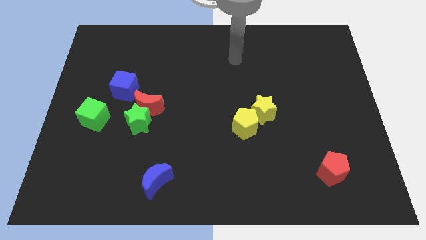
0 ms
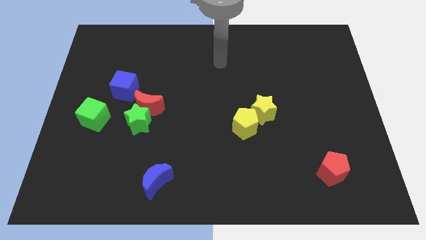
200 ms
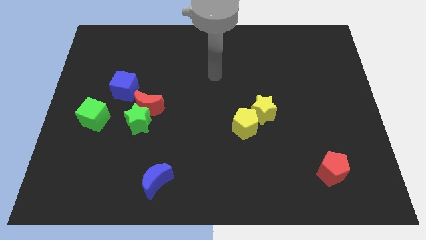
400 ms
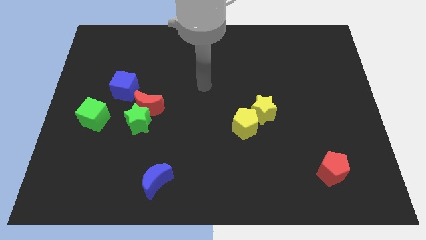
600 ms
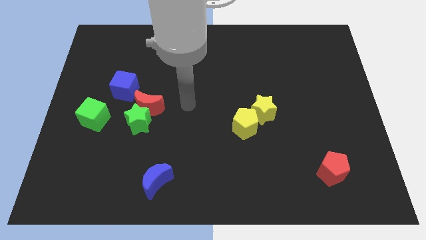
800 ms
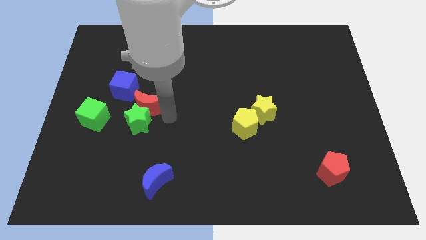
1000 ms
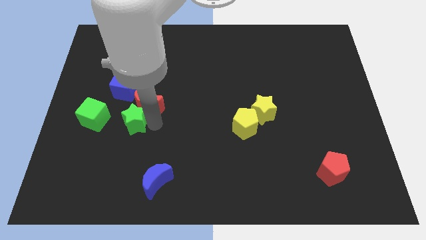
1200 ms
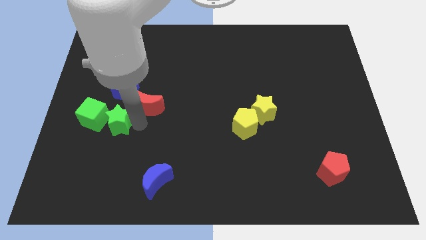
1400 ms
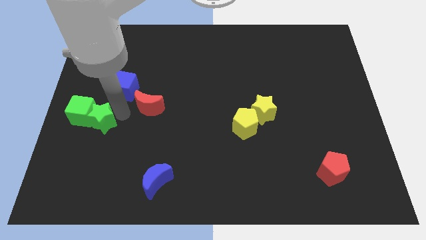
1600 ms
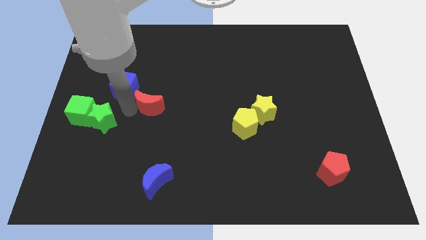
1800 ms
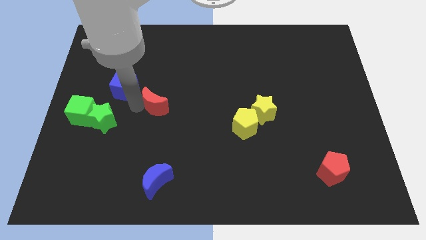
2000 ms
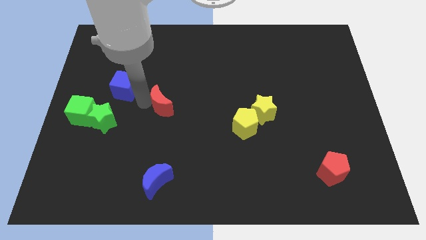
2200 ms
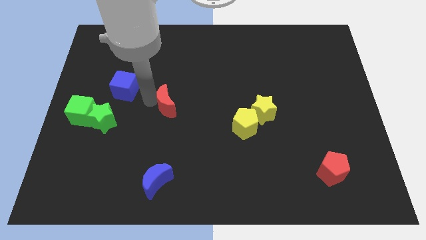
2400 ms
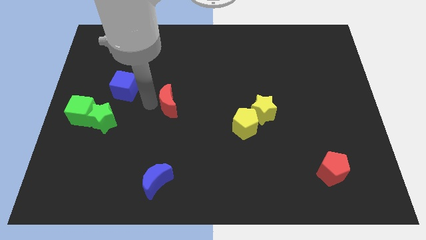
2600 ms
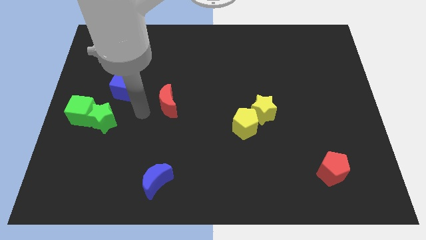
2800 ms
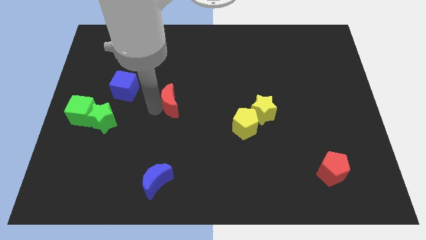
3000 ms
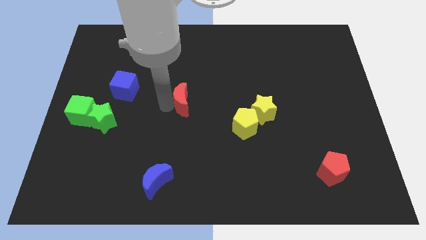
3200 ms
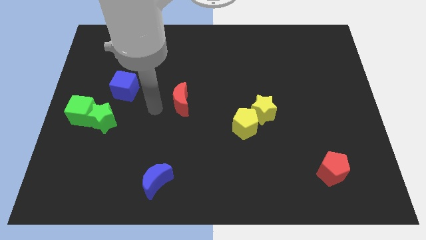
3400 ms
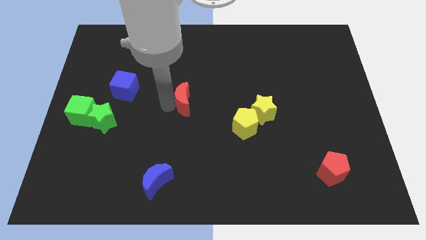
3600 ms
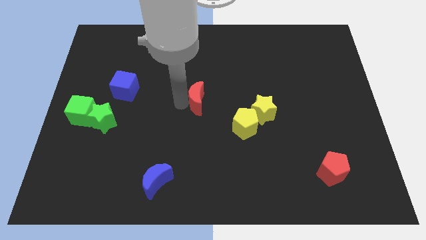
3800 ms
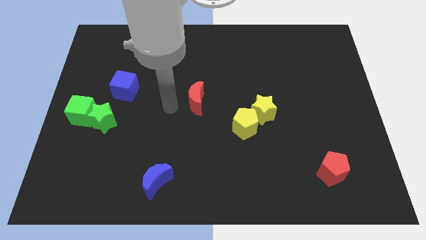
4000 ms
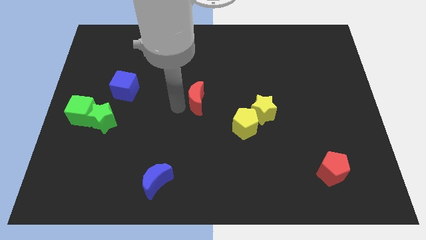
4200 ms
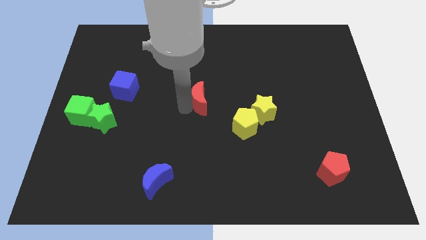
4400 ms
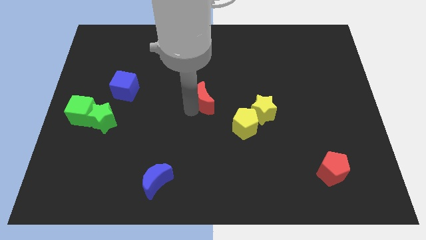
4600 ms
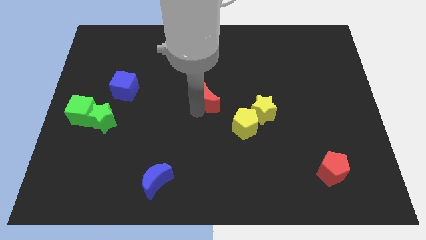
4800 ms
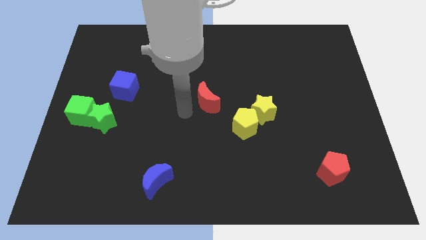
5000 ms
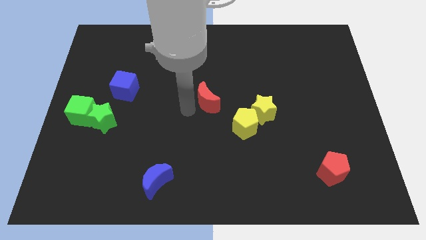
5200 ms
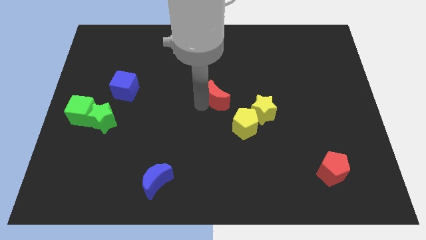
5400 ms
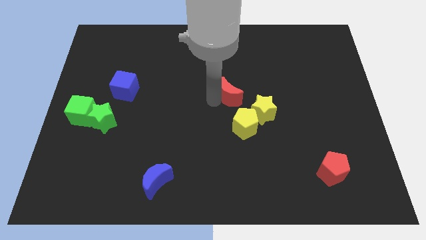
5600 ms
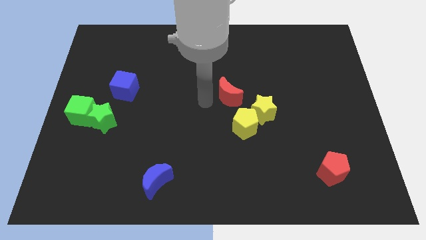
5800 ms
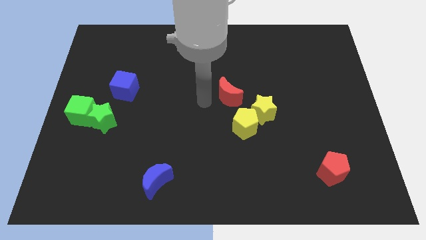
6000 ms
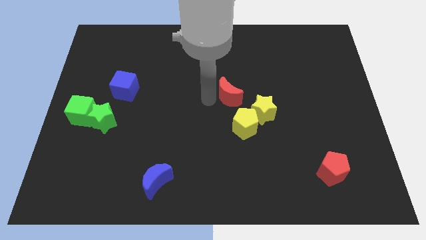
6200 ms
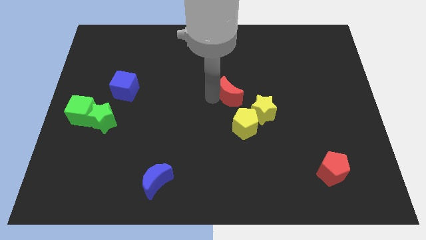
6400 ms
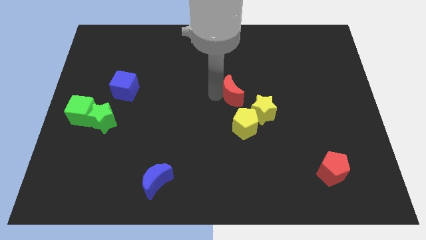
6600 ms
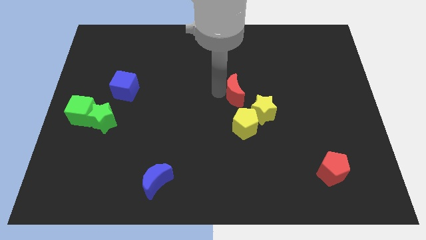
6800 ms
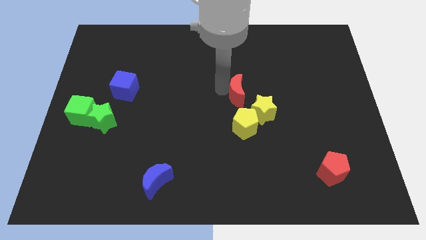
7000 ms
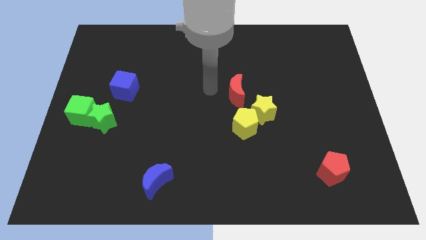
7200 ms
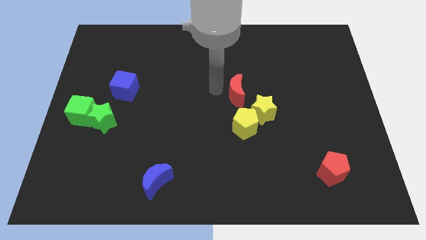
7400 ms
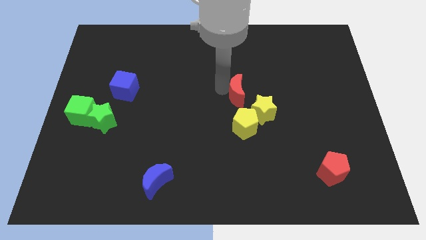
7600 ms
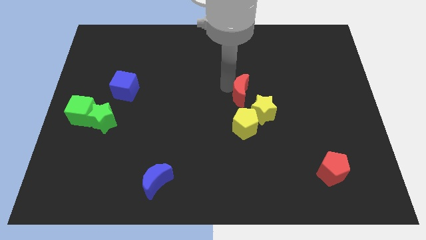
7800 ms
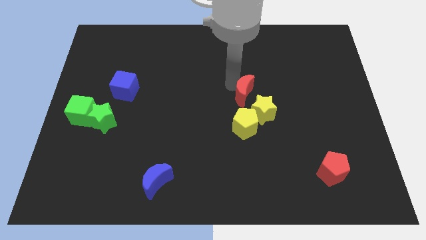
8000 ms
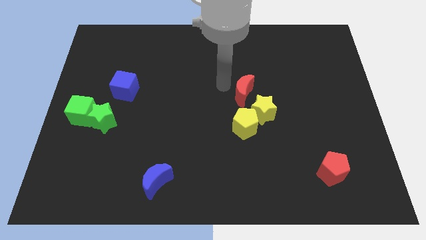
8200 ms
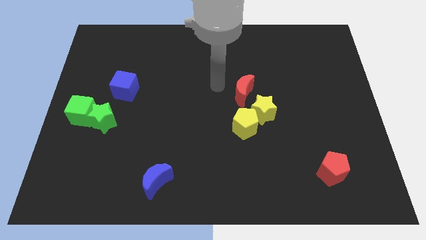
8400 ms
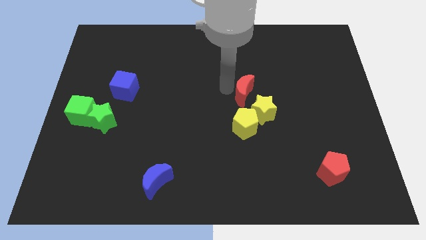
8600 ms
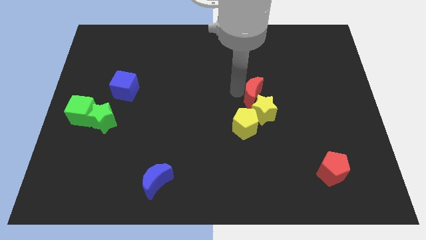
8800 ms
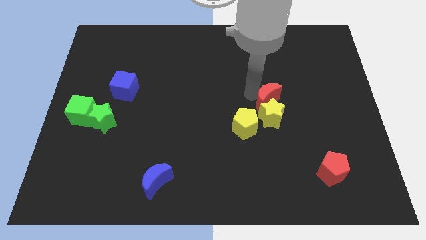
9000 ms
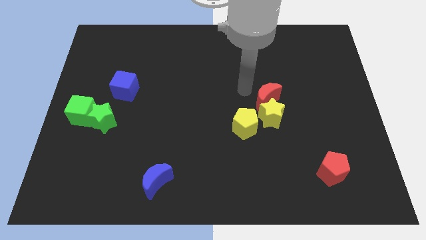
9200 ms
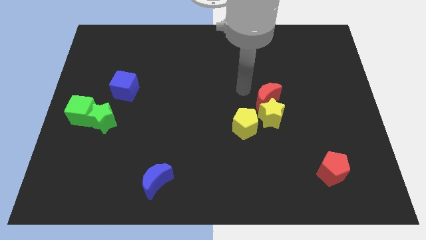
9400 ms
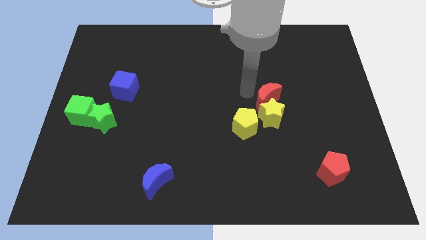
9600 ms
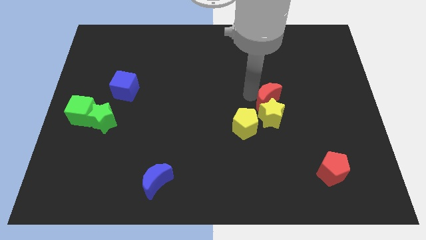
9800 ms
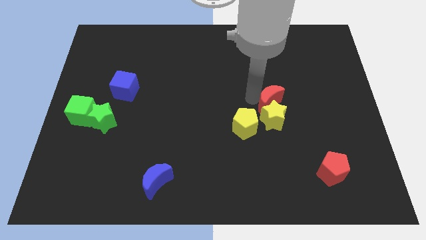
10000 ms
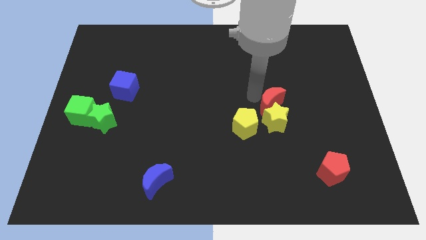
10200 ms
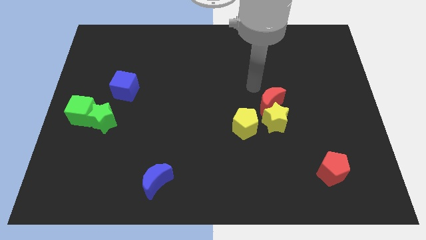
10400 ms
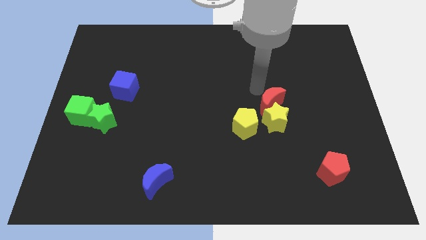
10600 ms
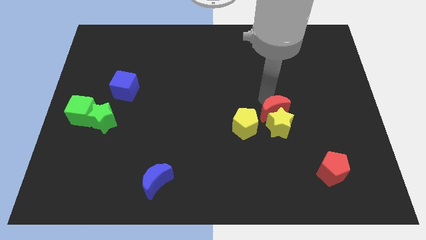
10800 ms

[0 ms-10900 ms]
move the red moon right of the yellow pentagon

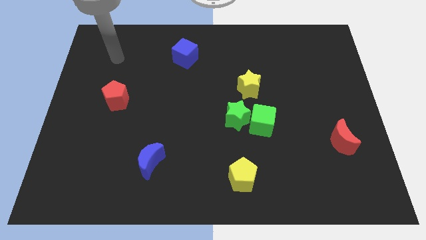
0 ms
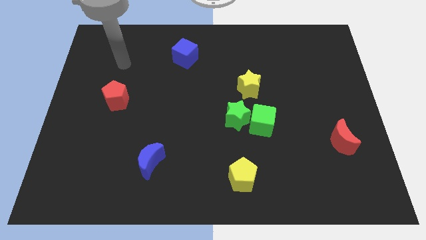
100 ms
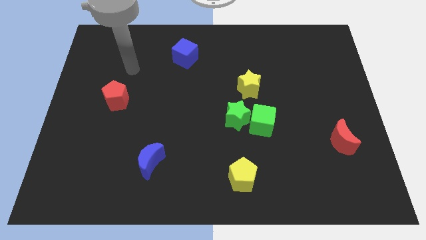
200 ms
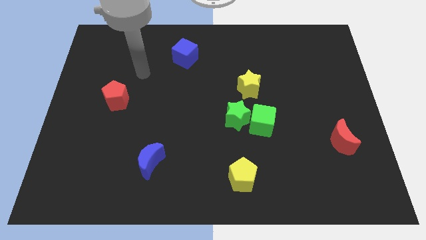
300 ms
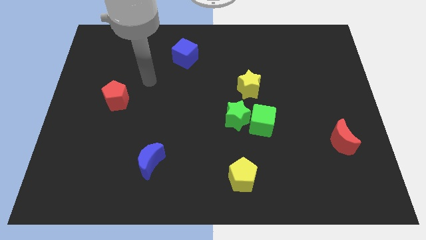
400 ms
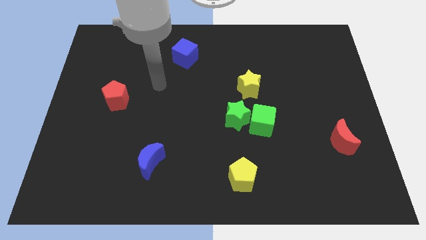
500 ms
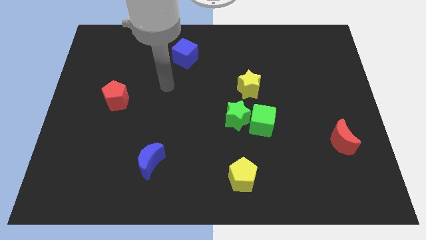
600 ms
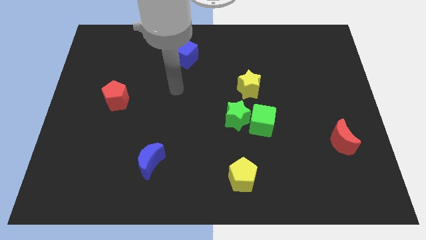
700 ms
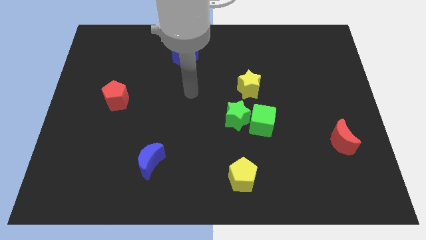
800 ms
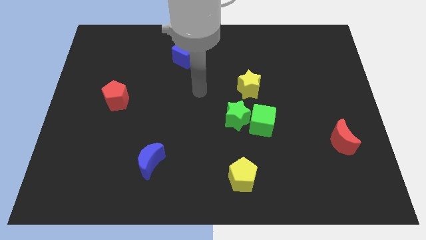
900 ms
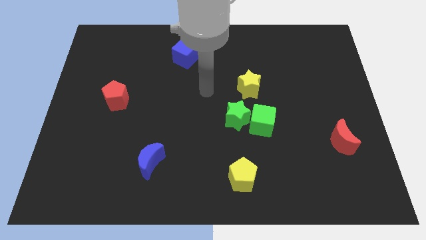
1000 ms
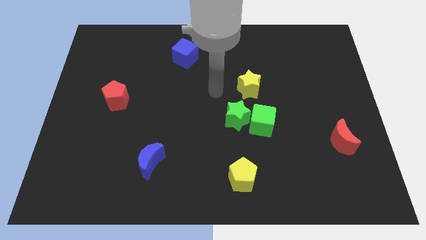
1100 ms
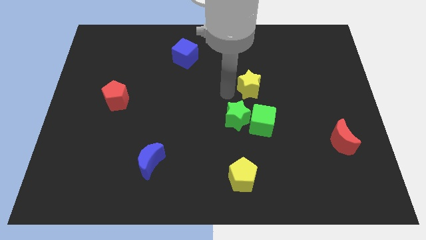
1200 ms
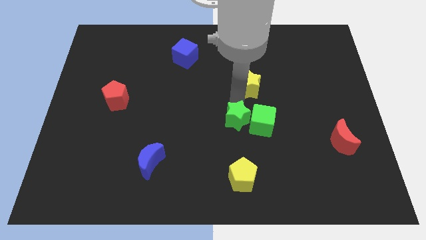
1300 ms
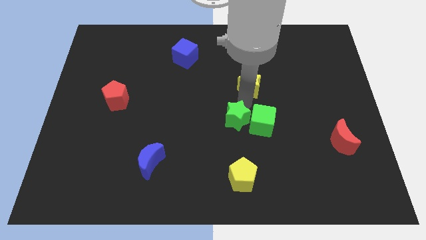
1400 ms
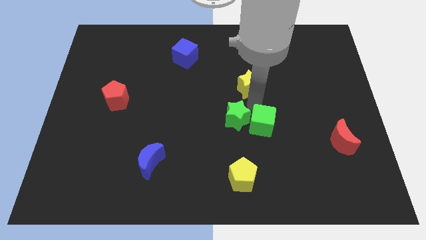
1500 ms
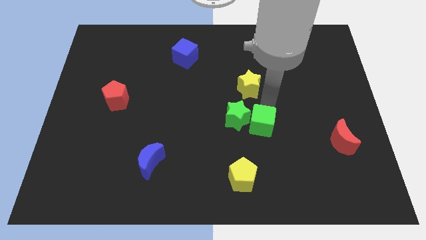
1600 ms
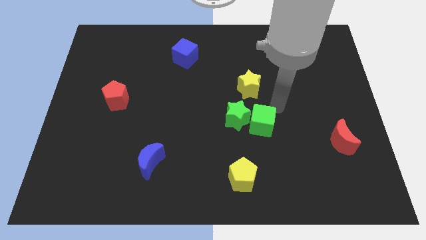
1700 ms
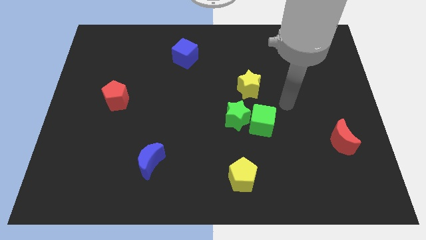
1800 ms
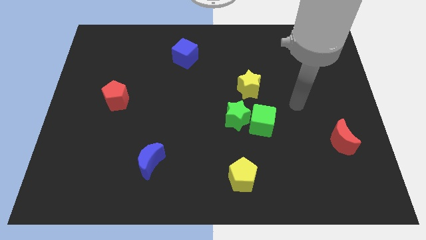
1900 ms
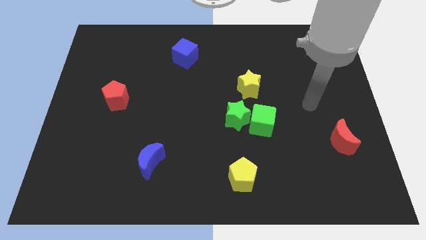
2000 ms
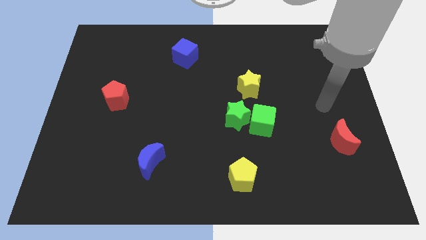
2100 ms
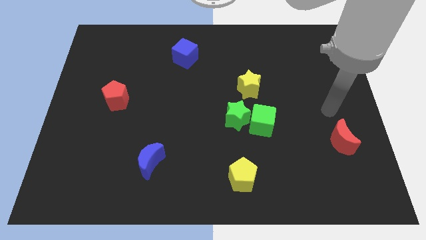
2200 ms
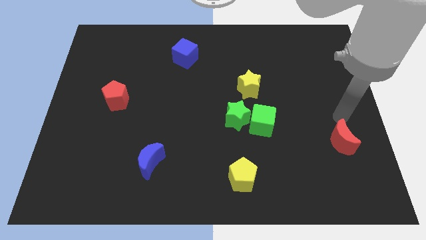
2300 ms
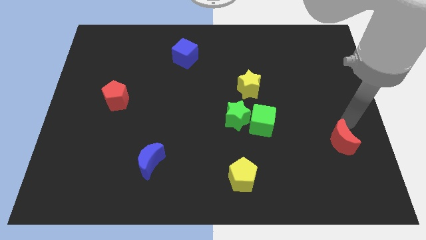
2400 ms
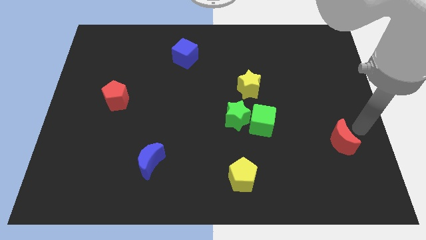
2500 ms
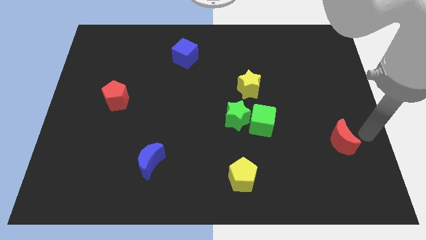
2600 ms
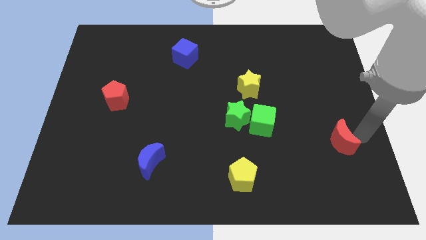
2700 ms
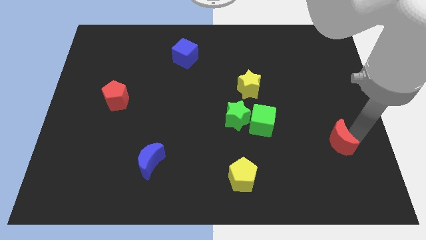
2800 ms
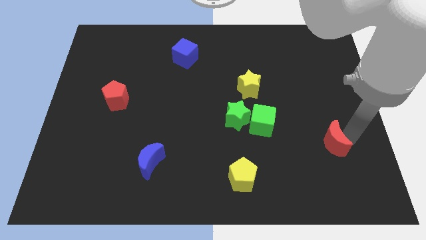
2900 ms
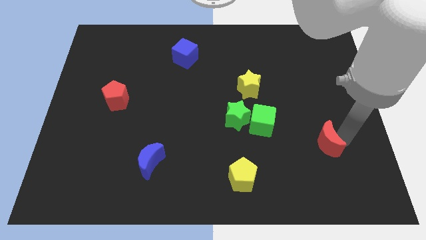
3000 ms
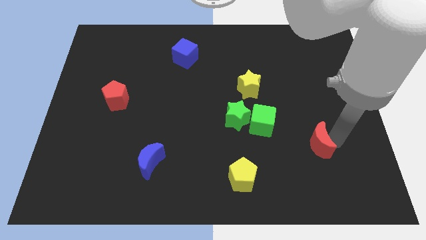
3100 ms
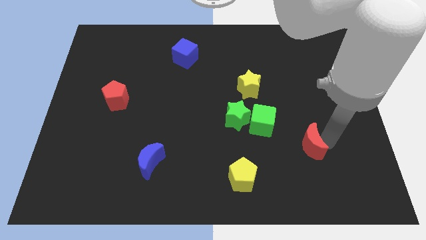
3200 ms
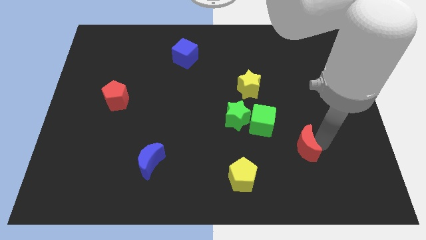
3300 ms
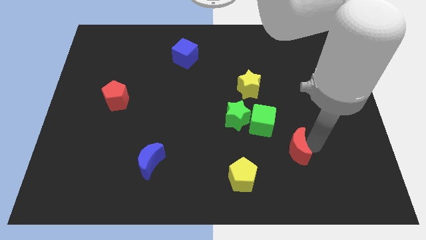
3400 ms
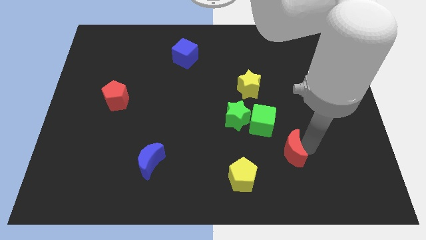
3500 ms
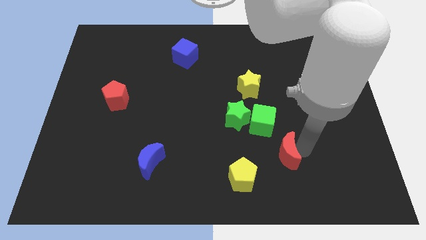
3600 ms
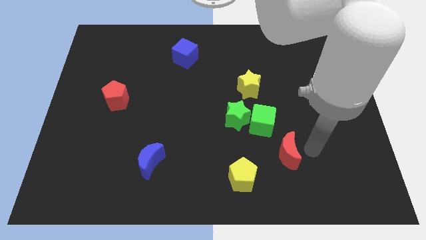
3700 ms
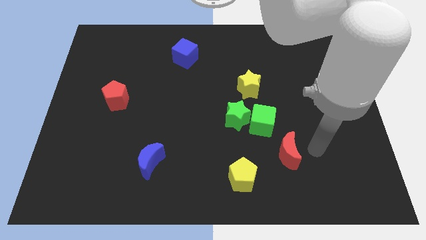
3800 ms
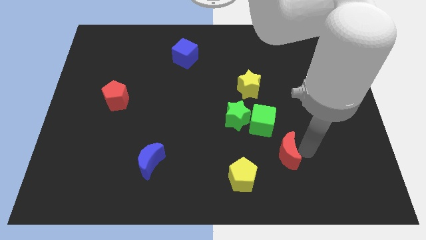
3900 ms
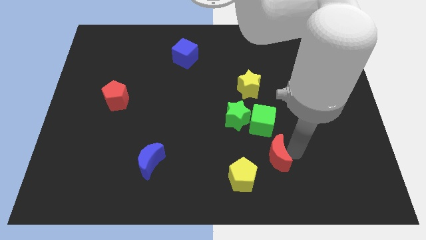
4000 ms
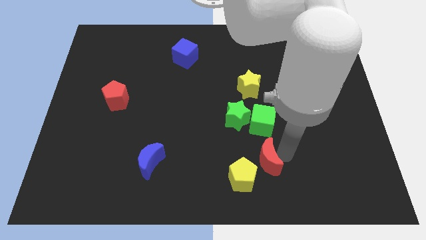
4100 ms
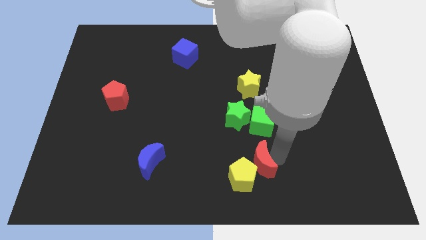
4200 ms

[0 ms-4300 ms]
put the red moon to the bottom side of the green star
